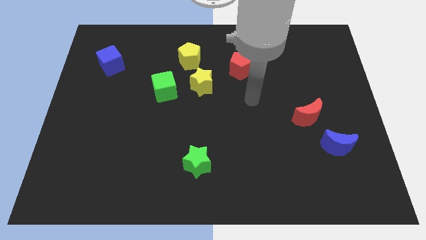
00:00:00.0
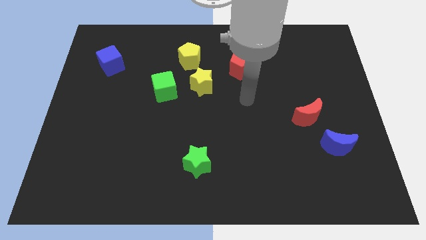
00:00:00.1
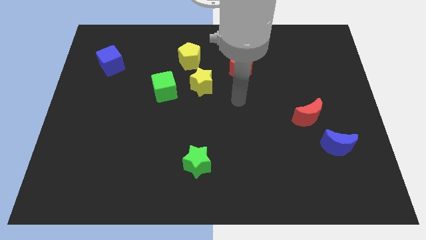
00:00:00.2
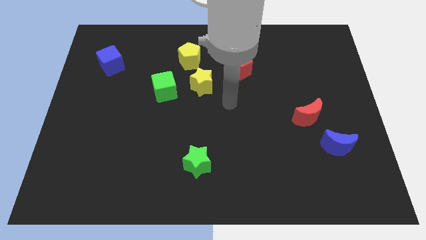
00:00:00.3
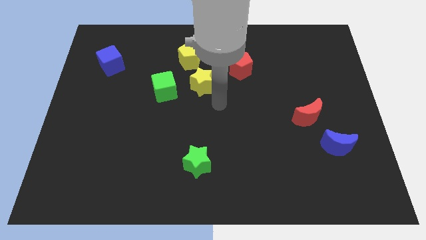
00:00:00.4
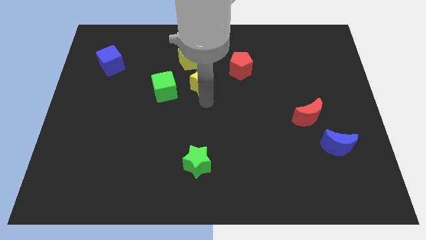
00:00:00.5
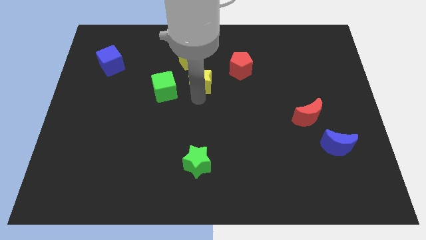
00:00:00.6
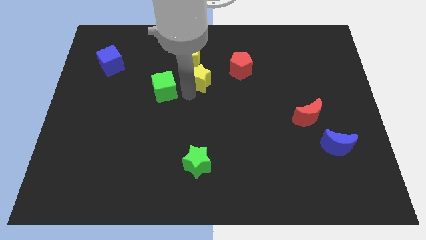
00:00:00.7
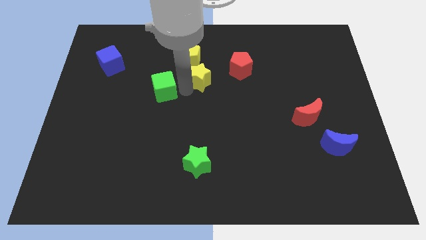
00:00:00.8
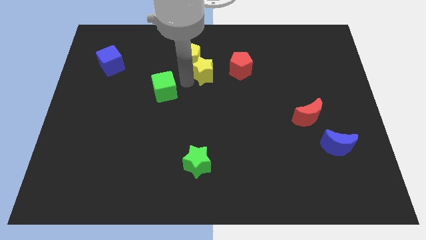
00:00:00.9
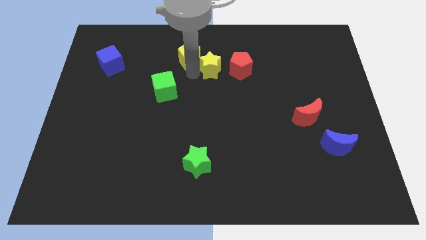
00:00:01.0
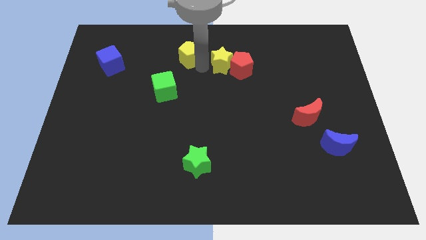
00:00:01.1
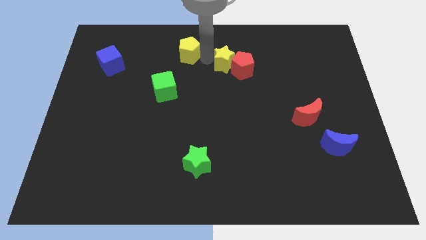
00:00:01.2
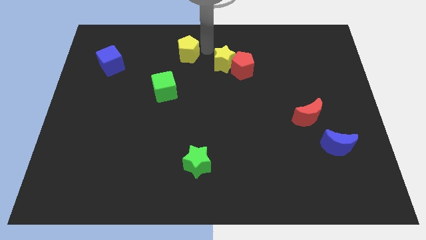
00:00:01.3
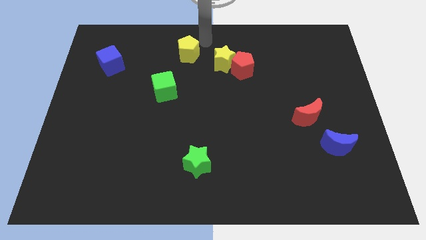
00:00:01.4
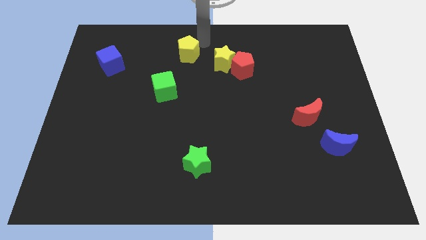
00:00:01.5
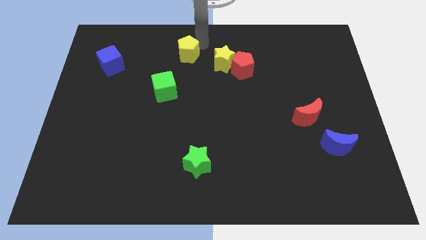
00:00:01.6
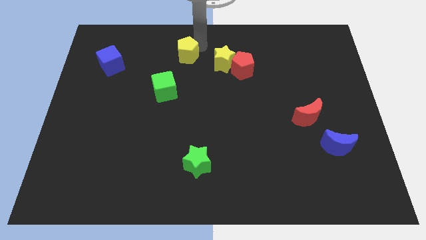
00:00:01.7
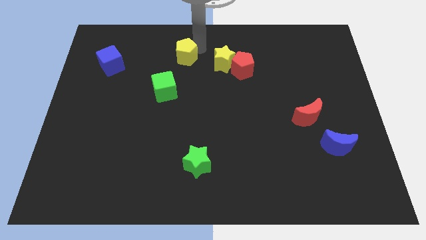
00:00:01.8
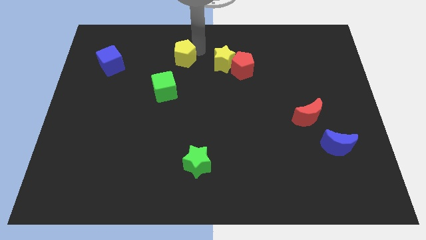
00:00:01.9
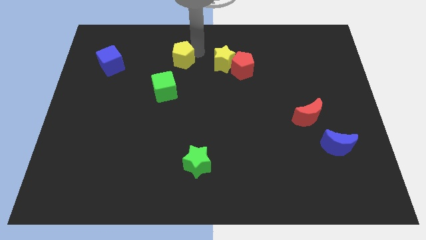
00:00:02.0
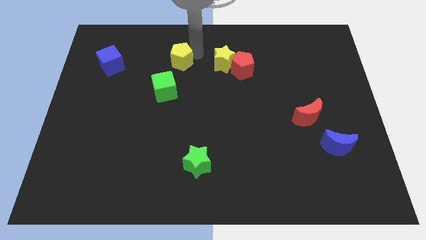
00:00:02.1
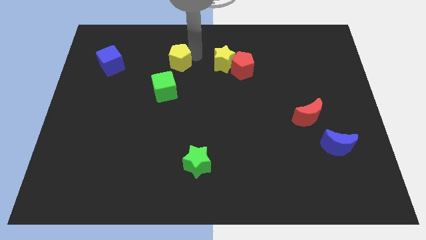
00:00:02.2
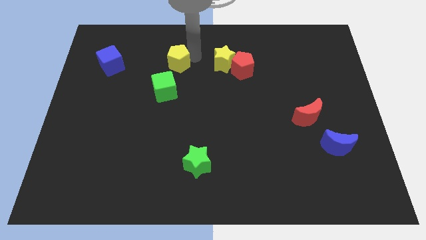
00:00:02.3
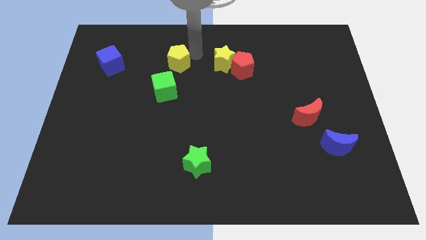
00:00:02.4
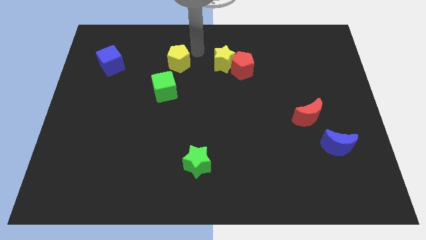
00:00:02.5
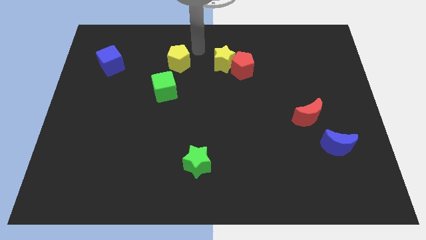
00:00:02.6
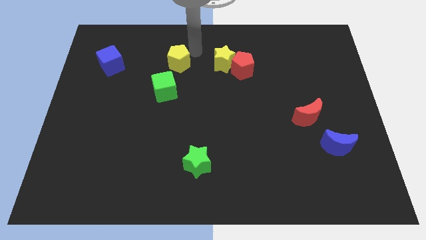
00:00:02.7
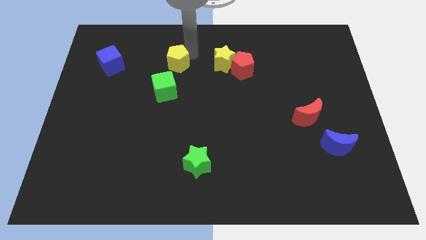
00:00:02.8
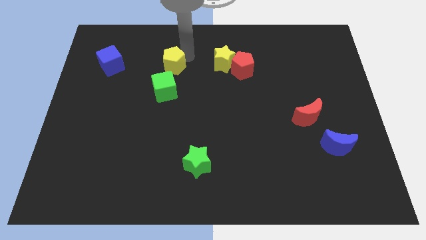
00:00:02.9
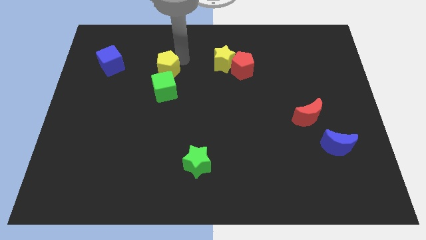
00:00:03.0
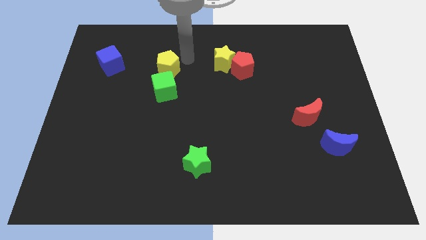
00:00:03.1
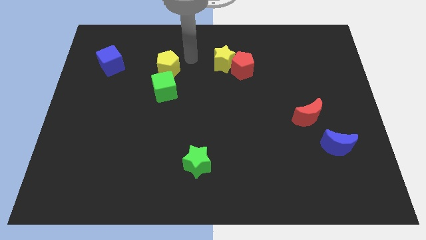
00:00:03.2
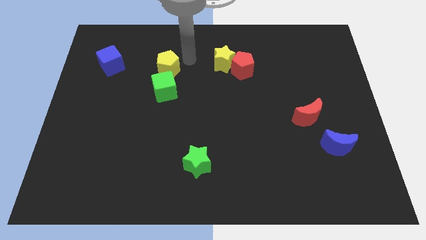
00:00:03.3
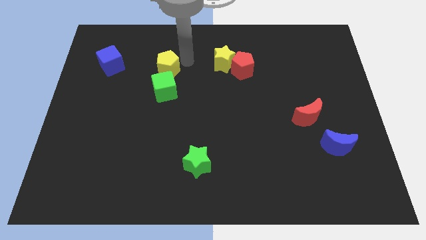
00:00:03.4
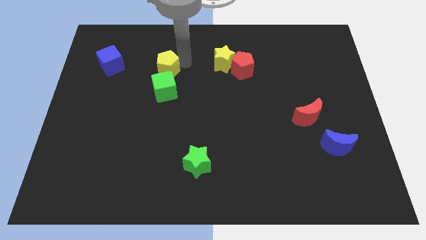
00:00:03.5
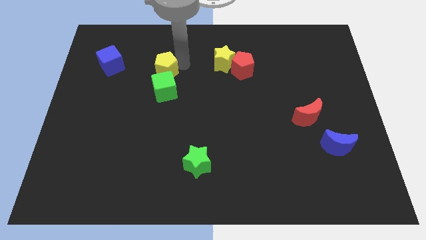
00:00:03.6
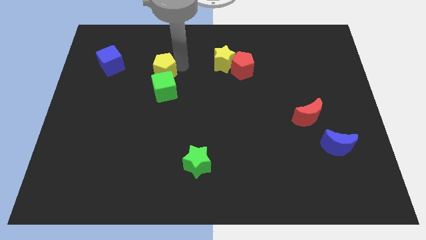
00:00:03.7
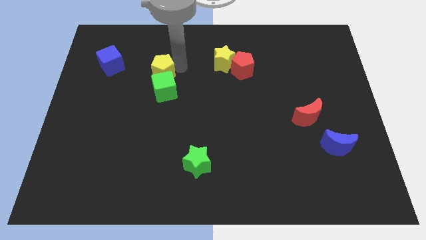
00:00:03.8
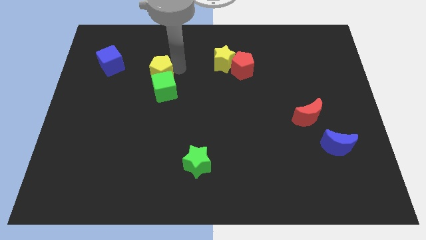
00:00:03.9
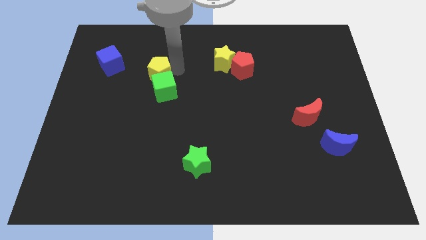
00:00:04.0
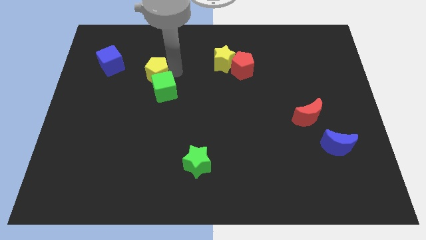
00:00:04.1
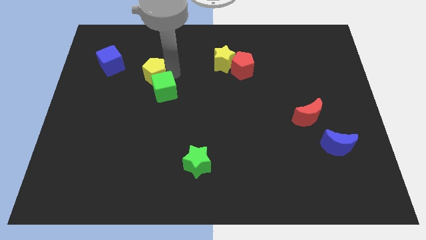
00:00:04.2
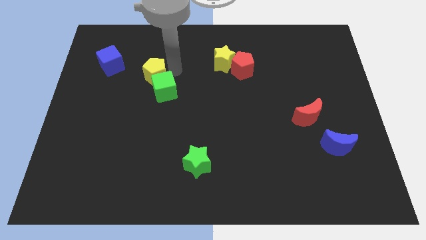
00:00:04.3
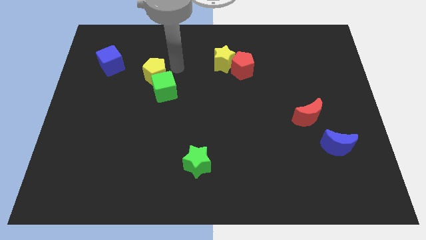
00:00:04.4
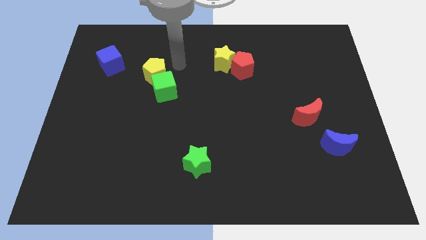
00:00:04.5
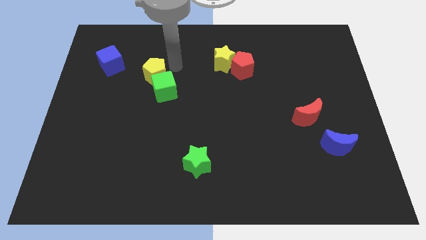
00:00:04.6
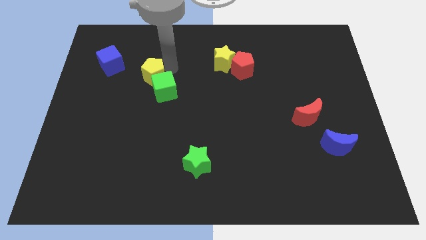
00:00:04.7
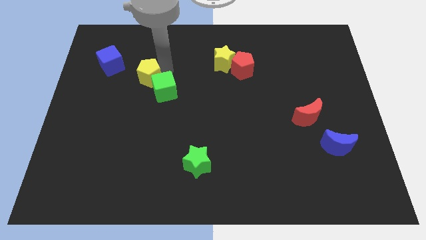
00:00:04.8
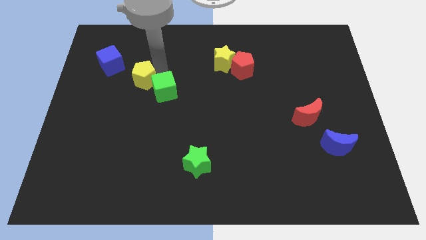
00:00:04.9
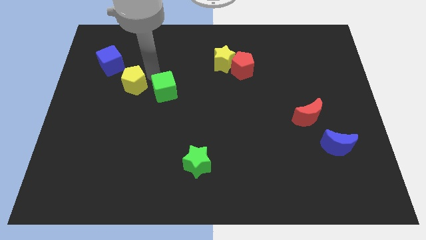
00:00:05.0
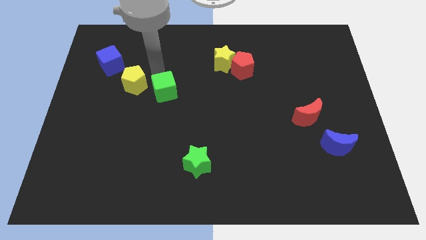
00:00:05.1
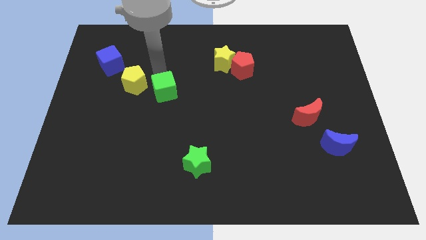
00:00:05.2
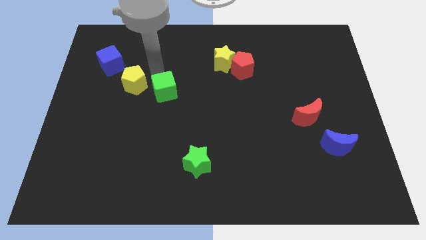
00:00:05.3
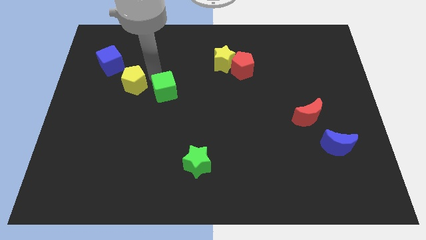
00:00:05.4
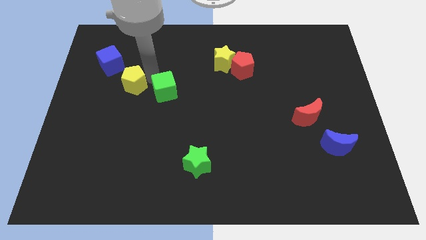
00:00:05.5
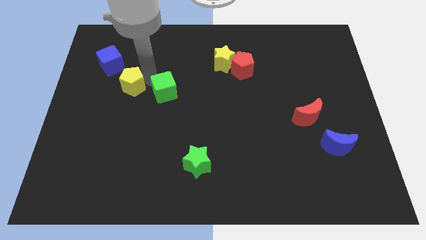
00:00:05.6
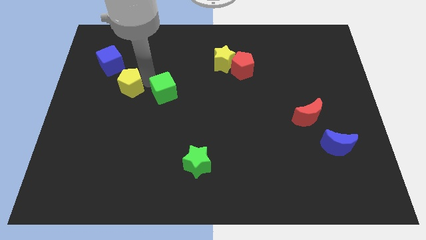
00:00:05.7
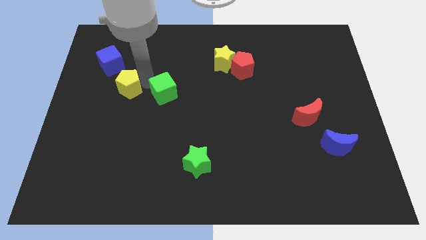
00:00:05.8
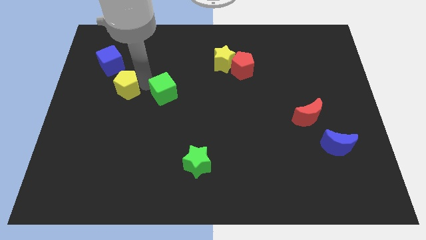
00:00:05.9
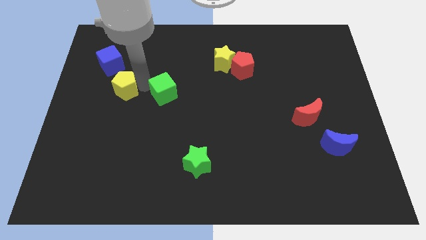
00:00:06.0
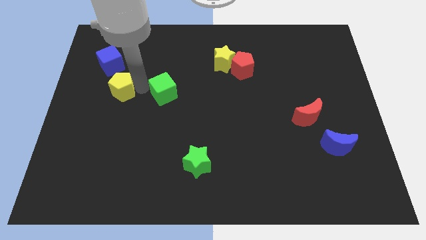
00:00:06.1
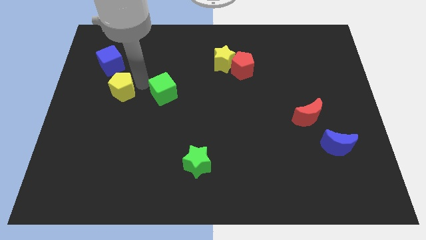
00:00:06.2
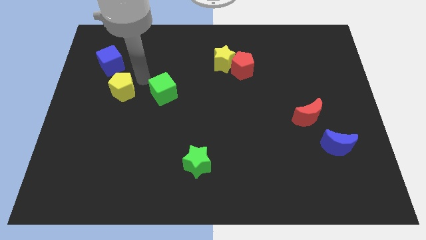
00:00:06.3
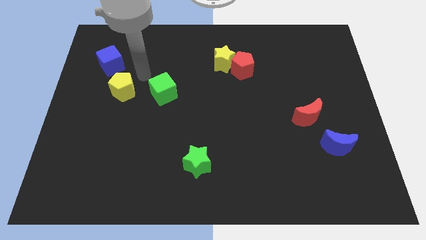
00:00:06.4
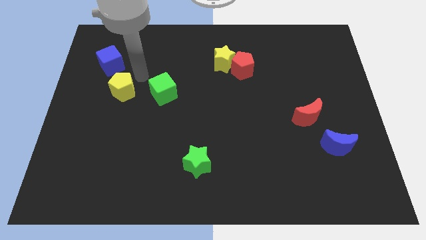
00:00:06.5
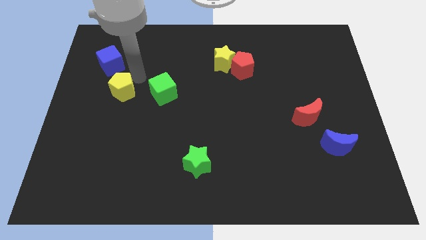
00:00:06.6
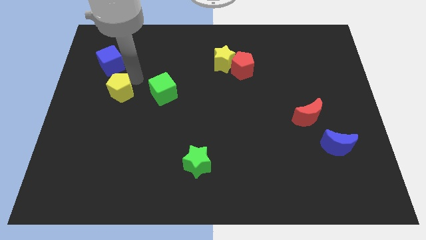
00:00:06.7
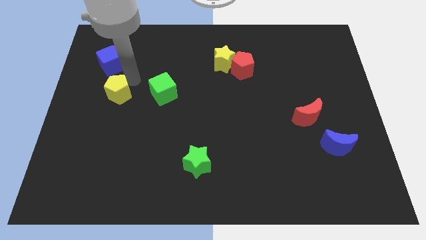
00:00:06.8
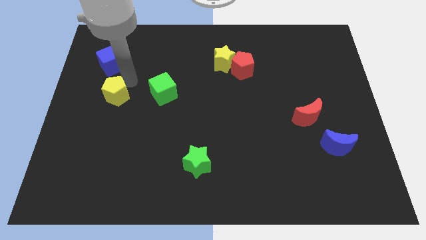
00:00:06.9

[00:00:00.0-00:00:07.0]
move the yellow pentagon downwards and left

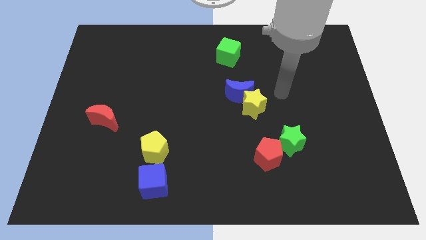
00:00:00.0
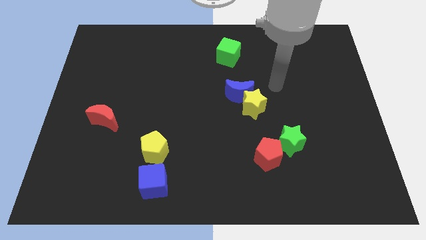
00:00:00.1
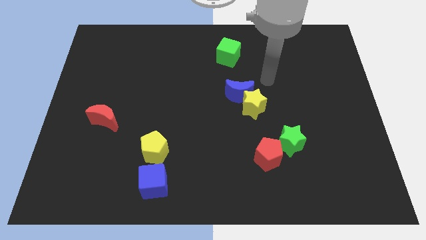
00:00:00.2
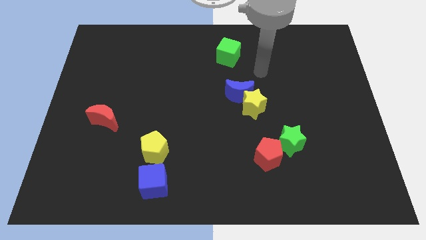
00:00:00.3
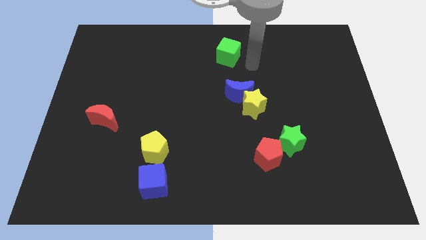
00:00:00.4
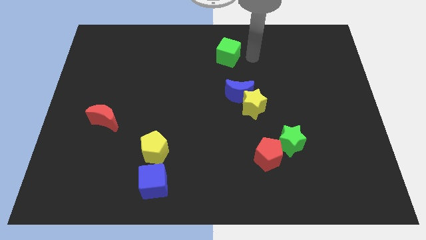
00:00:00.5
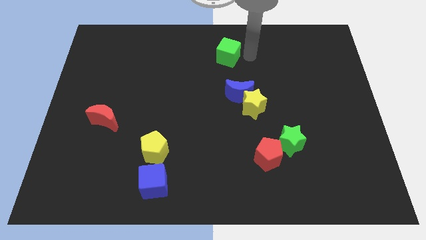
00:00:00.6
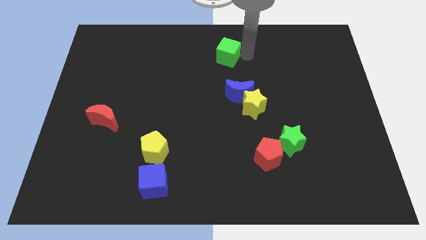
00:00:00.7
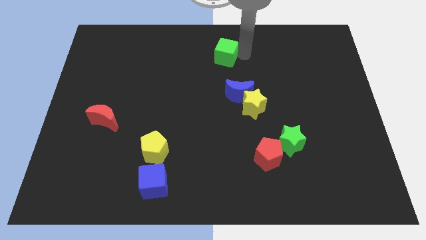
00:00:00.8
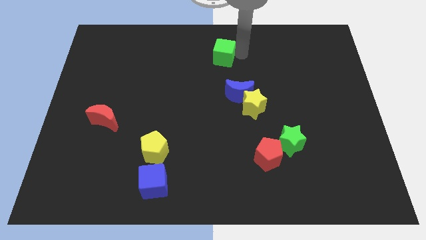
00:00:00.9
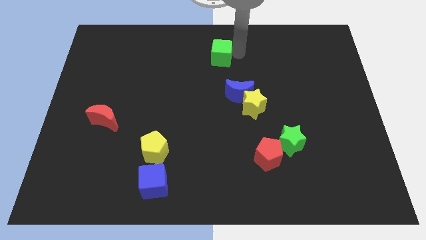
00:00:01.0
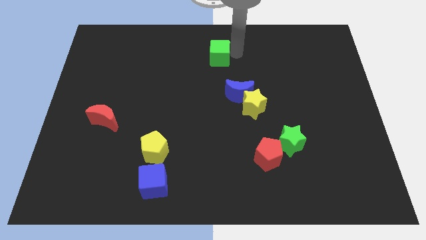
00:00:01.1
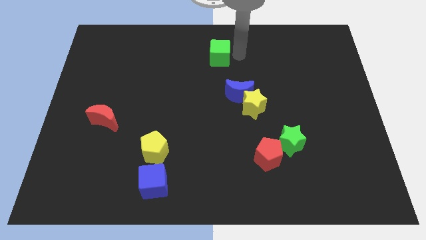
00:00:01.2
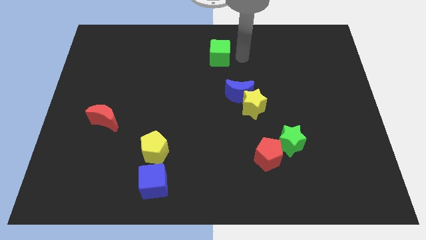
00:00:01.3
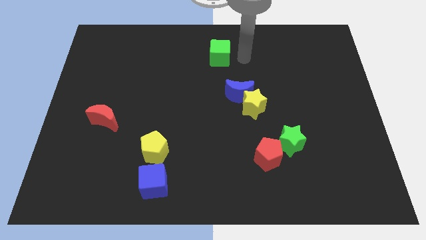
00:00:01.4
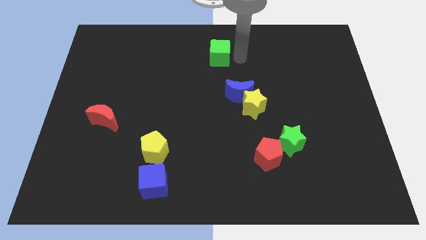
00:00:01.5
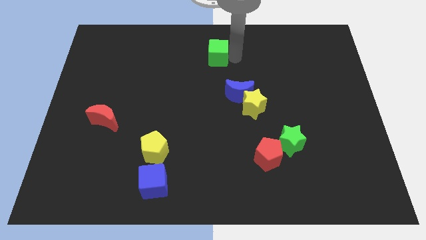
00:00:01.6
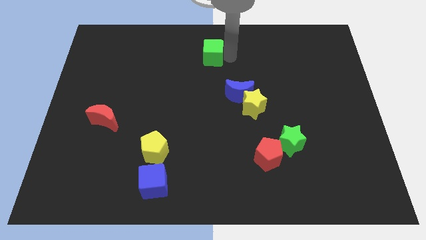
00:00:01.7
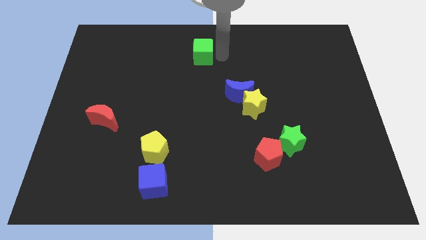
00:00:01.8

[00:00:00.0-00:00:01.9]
move the green cube left a little
